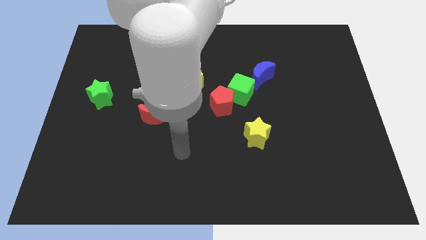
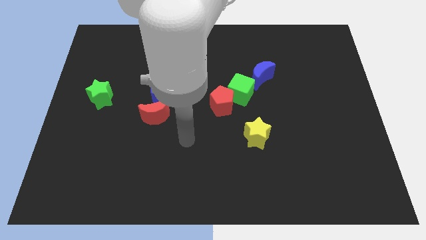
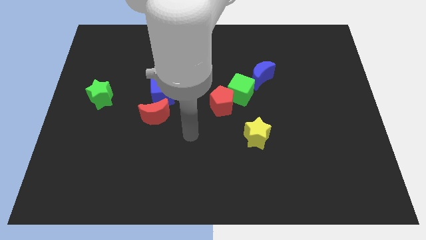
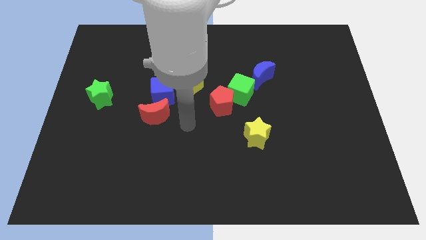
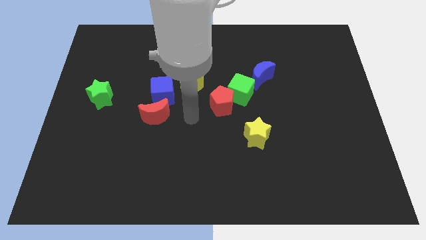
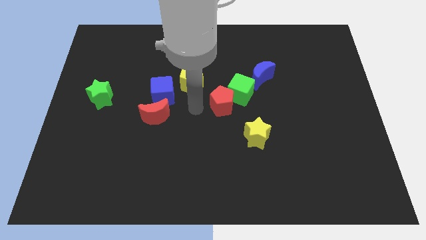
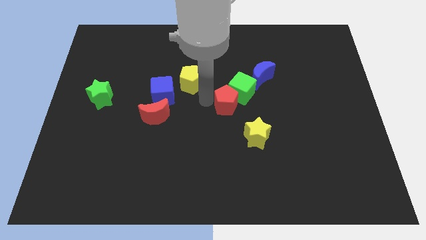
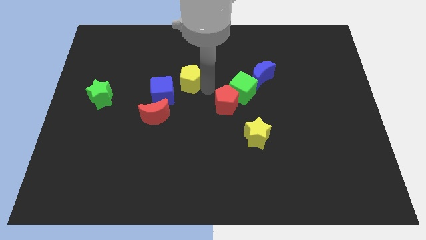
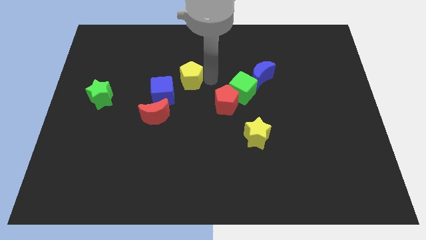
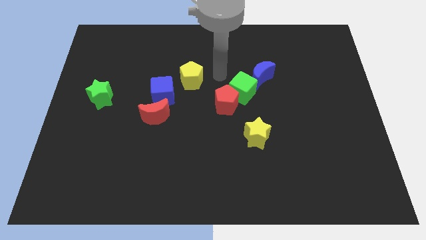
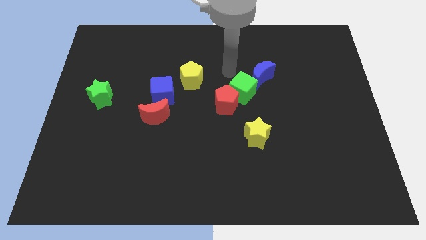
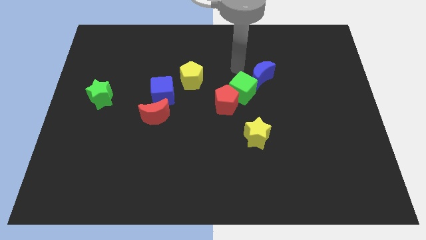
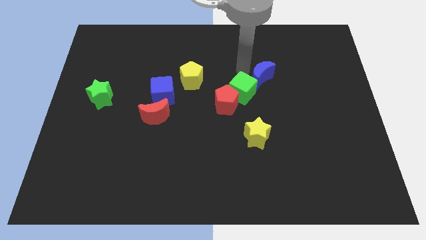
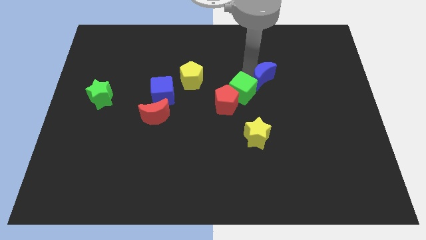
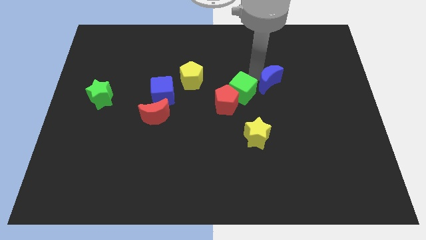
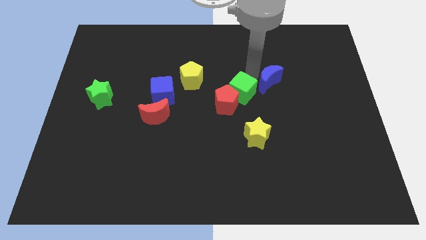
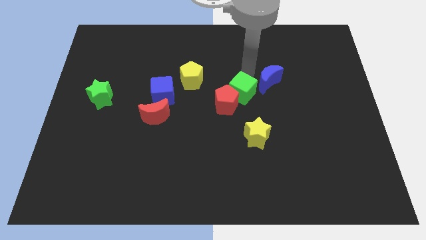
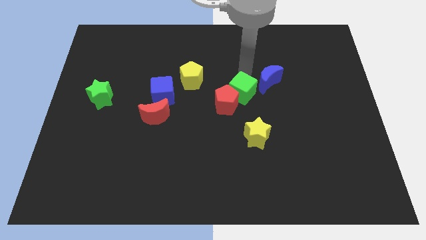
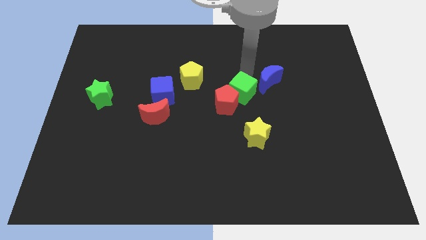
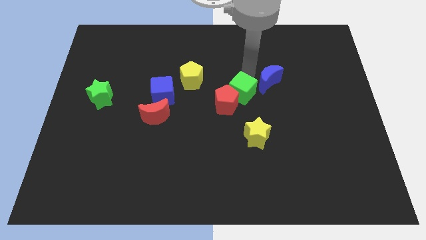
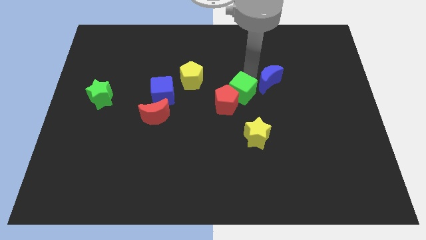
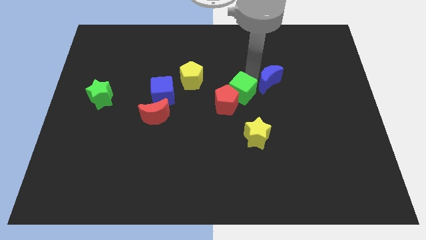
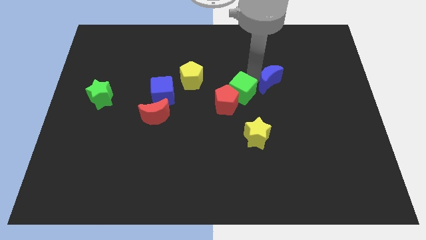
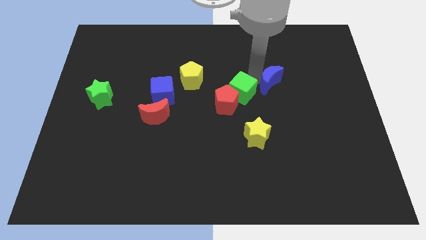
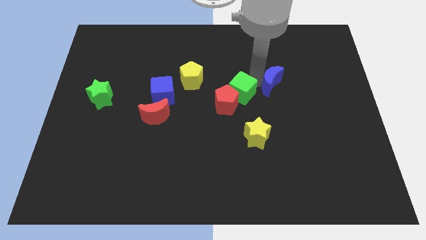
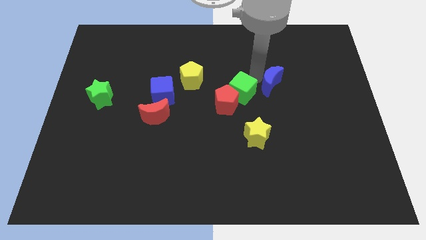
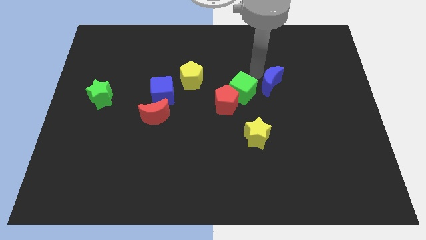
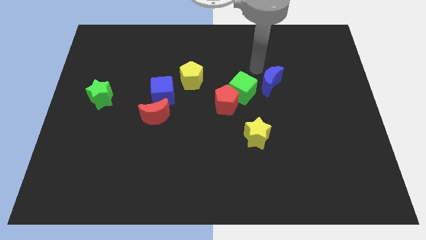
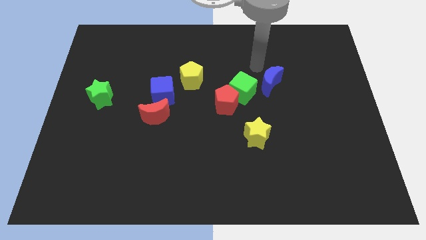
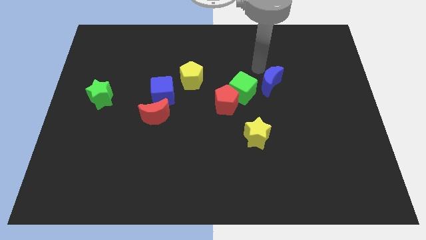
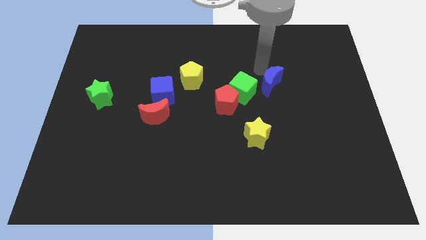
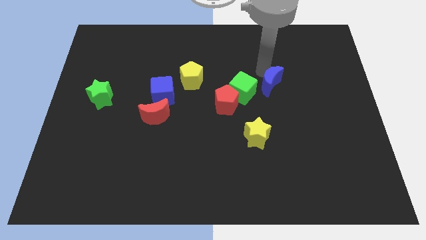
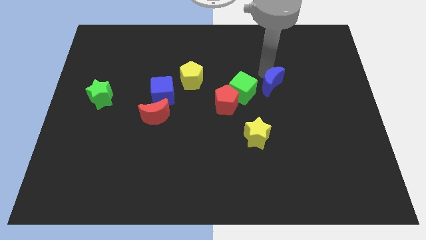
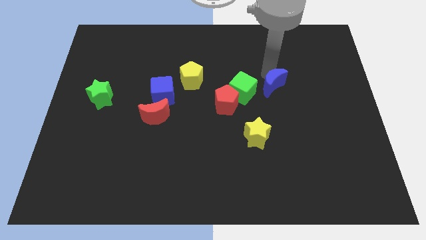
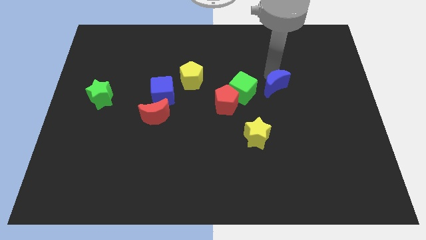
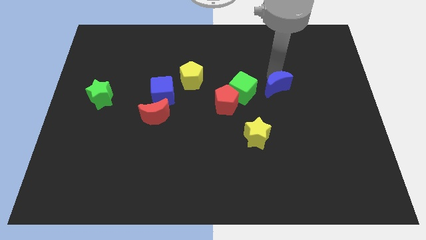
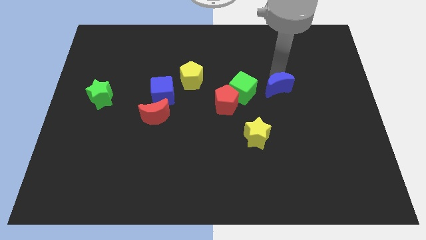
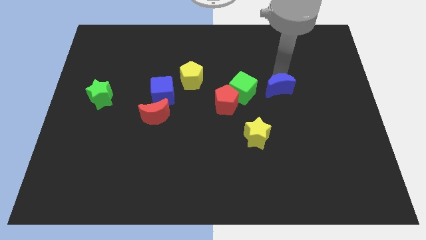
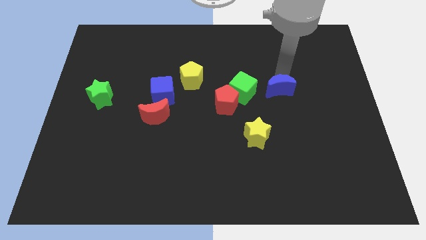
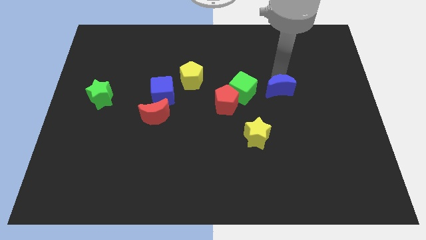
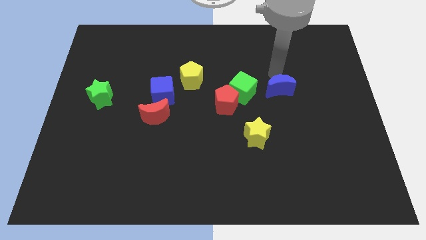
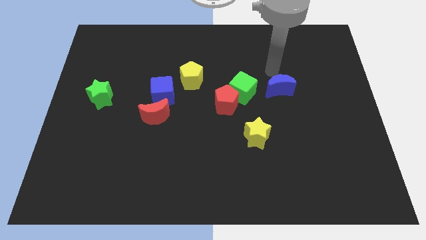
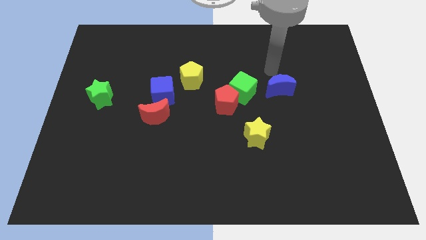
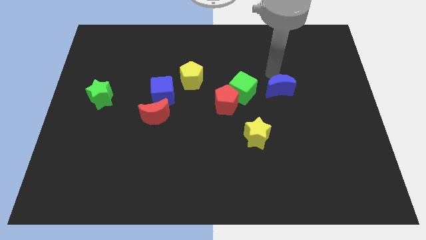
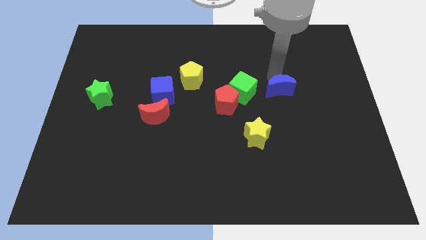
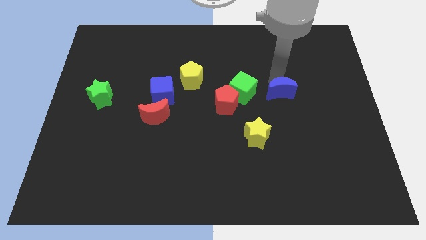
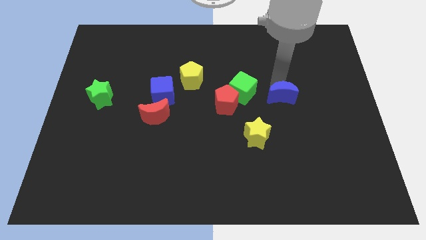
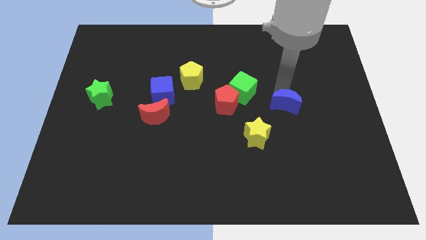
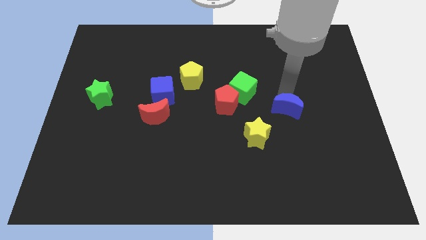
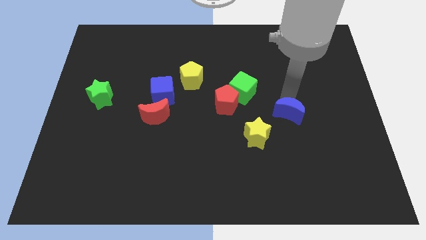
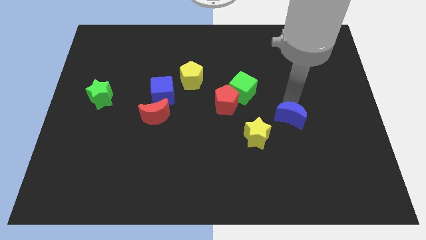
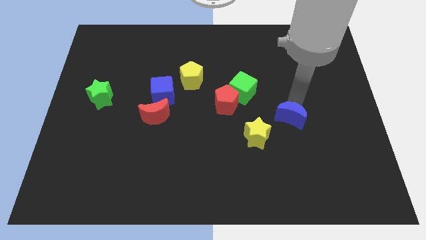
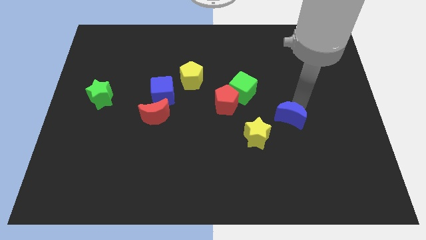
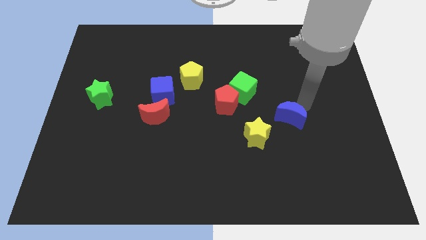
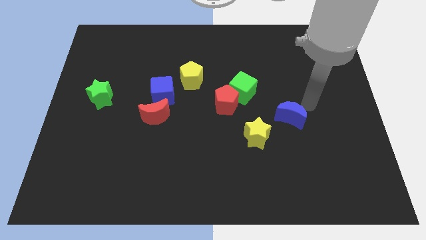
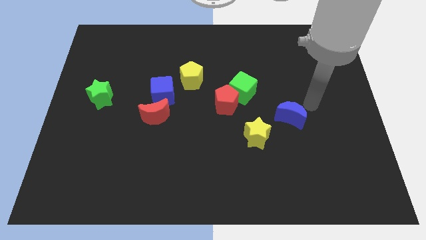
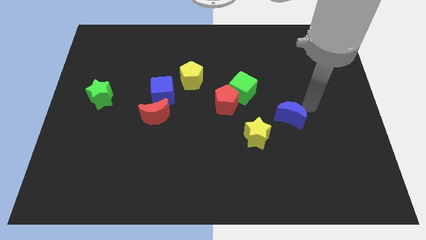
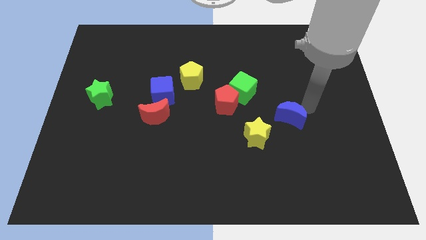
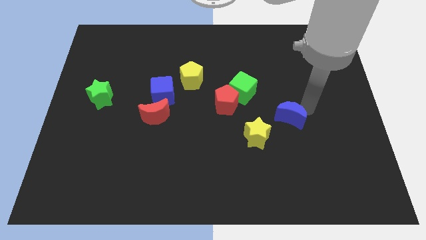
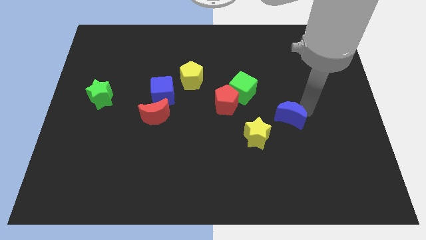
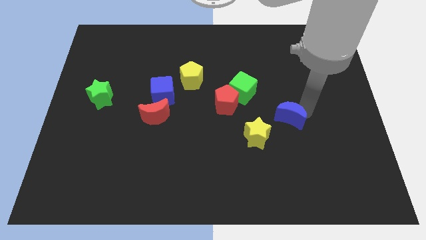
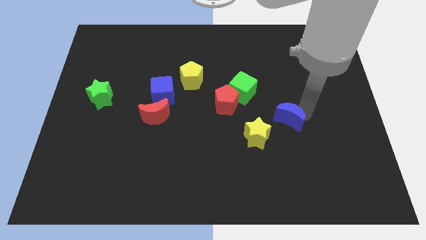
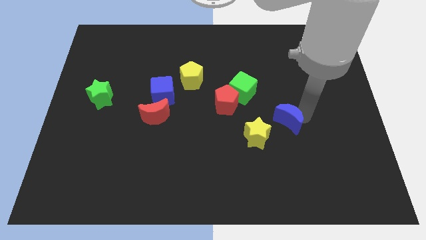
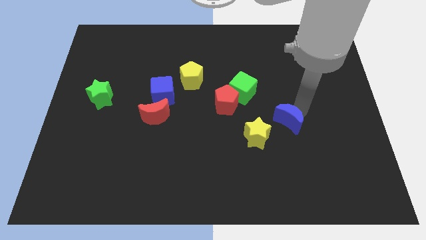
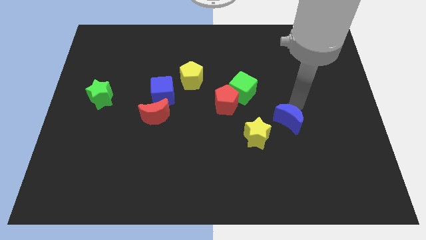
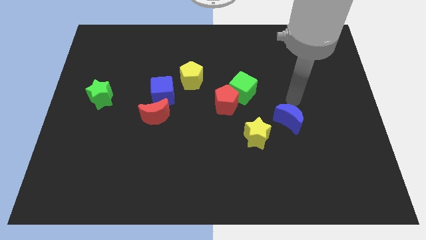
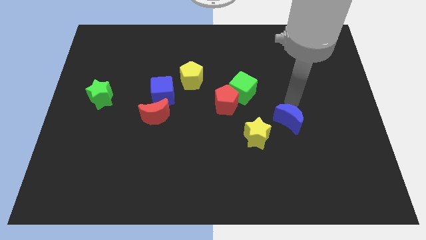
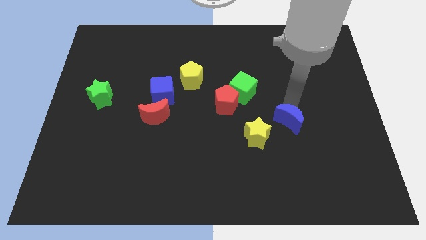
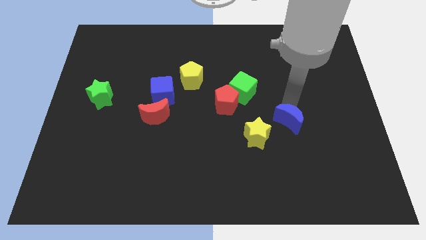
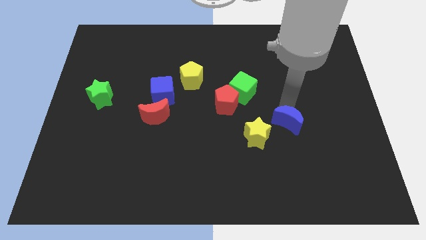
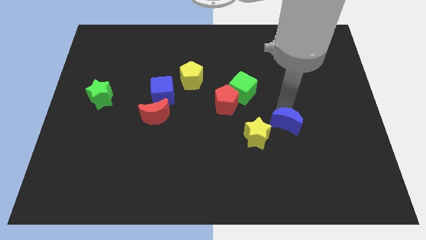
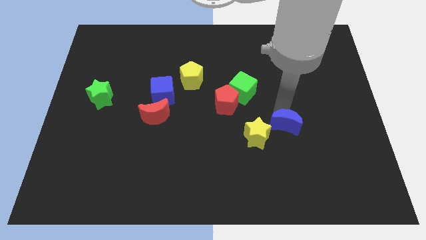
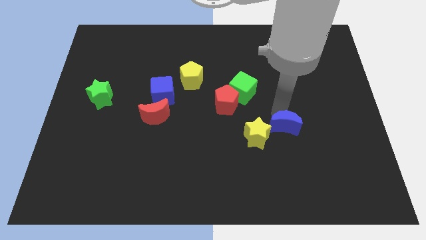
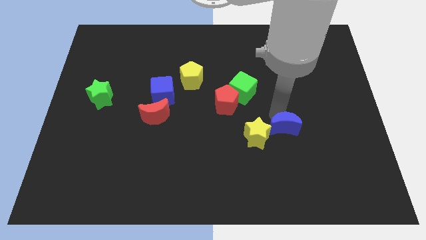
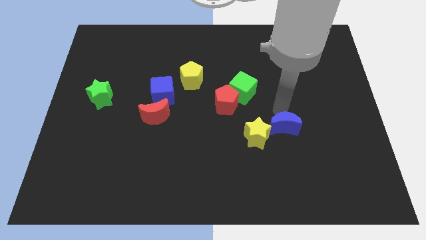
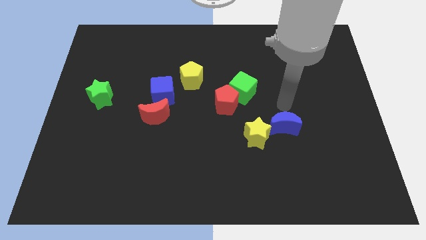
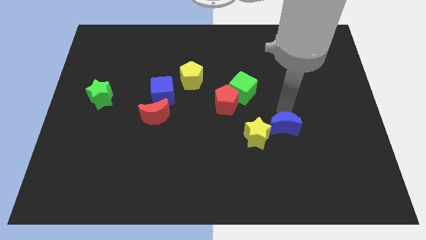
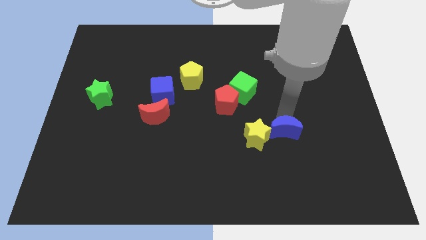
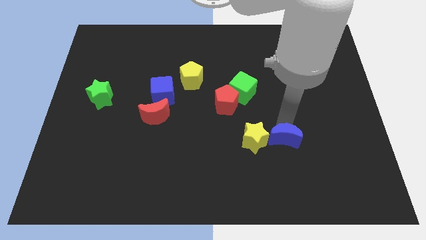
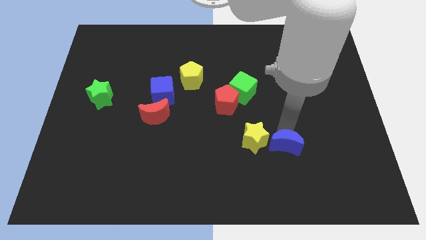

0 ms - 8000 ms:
slide the blue moon diagonally down and to the right of the yellow star
